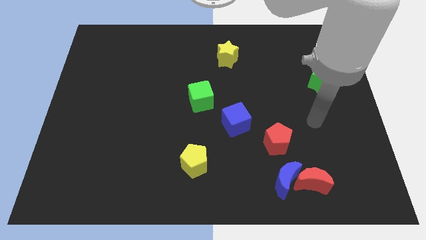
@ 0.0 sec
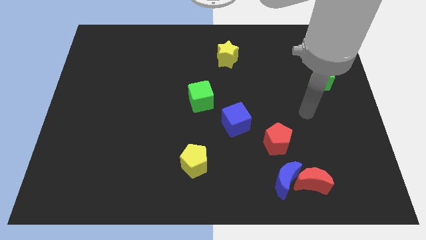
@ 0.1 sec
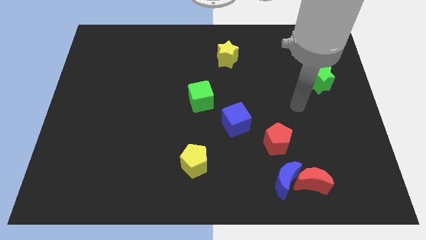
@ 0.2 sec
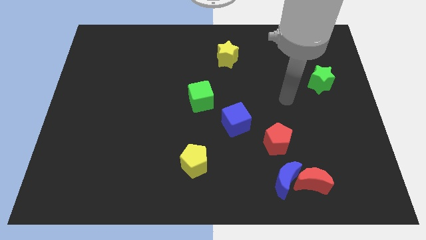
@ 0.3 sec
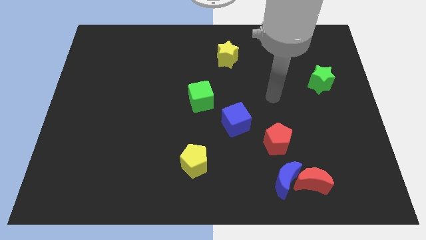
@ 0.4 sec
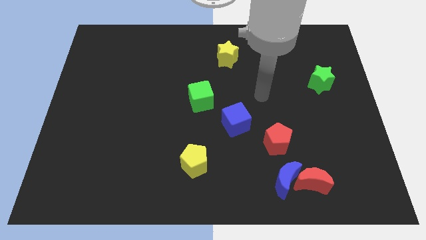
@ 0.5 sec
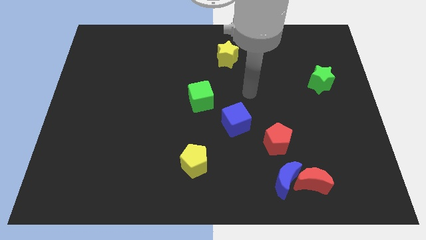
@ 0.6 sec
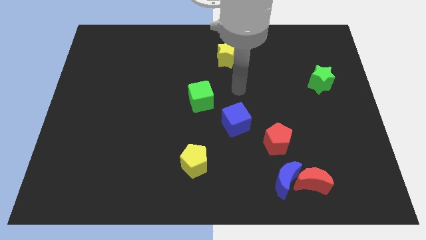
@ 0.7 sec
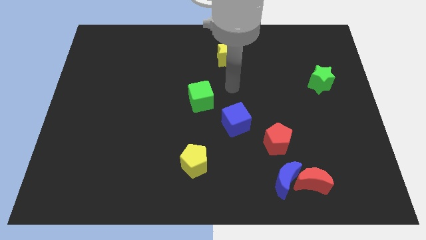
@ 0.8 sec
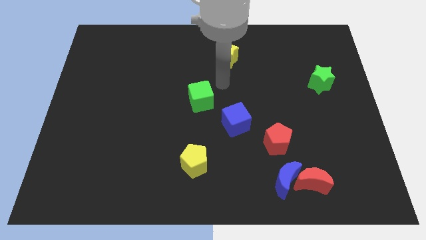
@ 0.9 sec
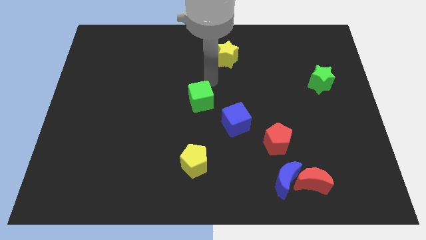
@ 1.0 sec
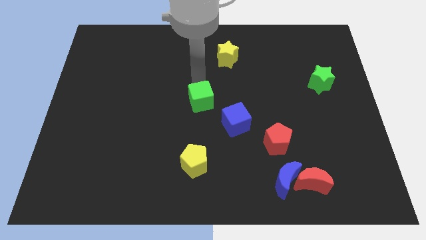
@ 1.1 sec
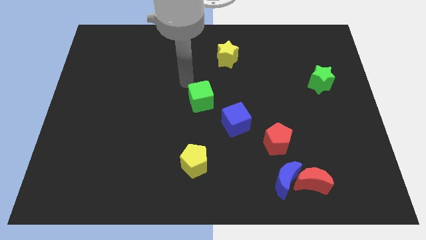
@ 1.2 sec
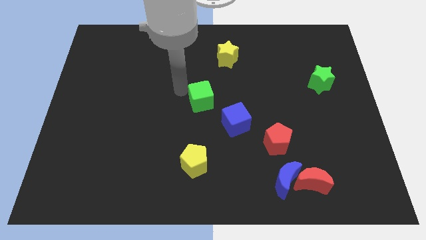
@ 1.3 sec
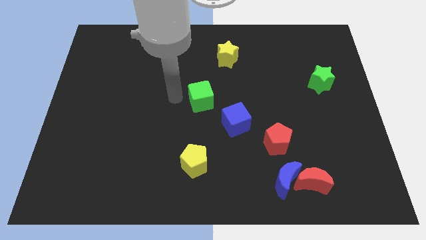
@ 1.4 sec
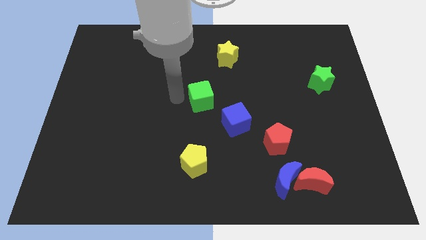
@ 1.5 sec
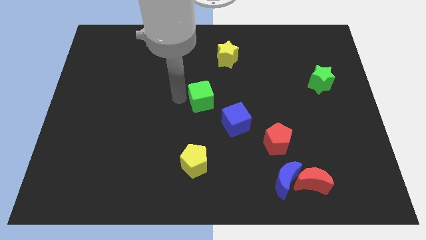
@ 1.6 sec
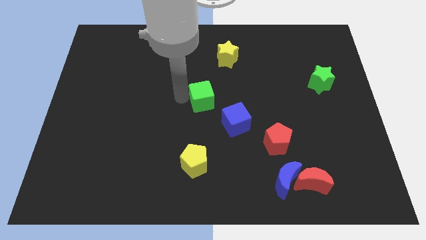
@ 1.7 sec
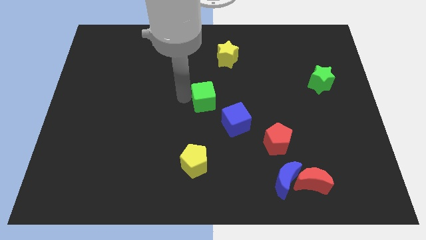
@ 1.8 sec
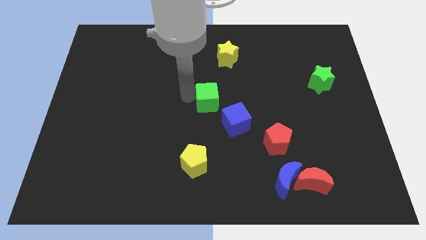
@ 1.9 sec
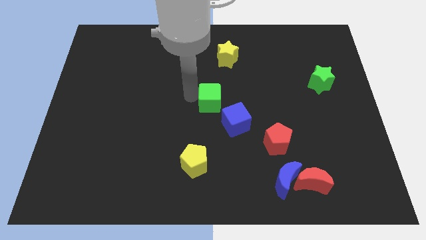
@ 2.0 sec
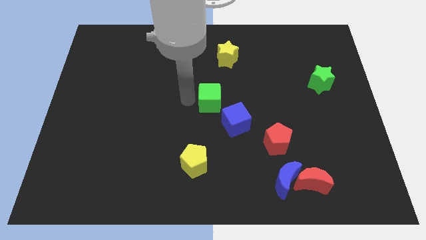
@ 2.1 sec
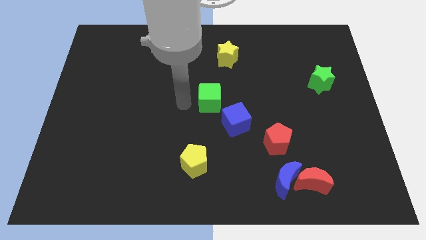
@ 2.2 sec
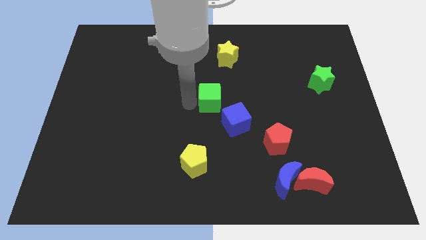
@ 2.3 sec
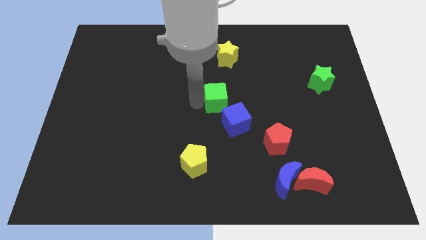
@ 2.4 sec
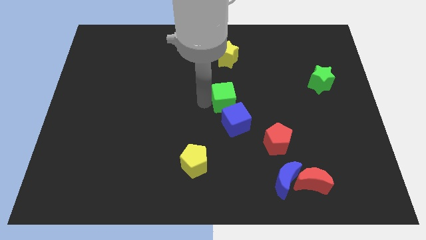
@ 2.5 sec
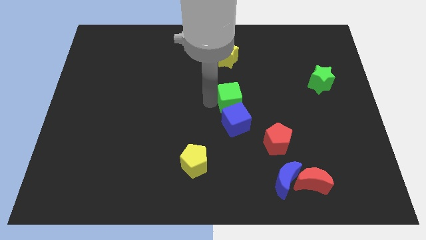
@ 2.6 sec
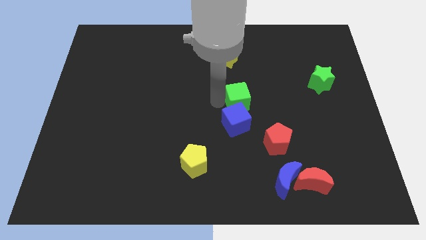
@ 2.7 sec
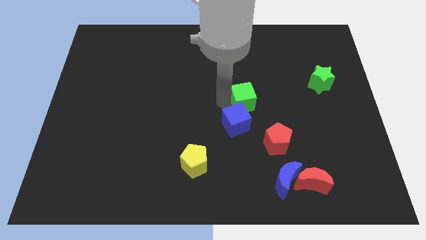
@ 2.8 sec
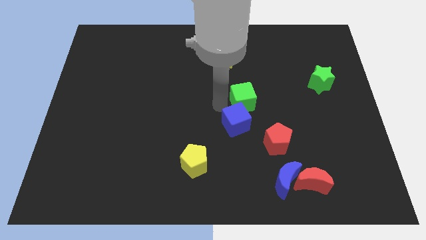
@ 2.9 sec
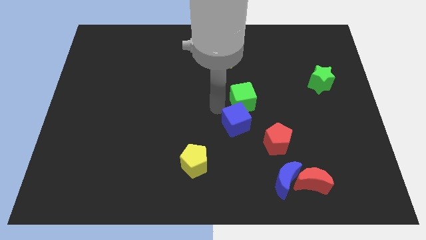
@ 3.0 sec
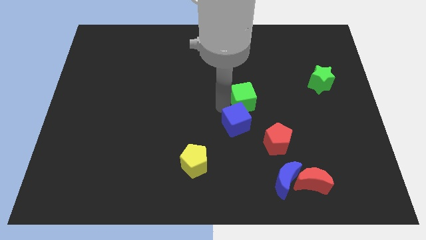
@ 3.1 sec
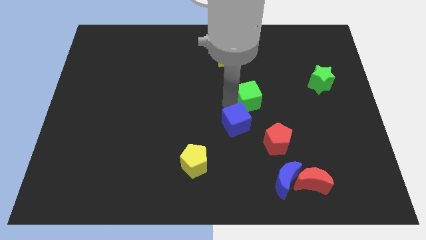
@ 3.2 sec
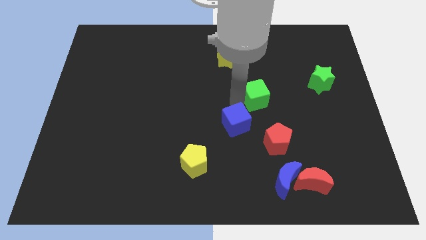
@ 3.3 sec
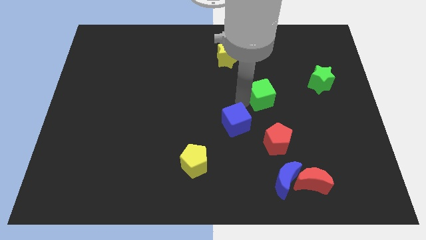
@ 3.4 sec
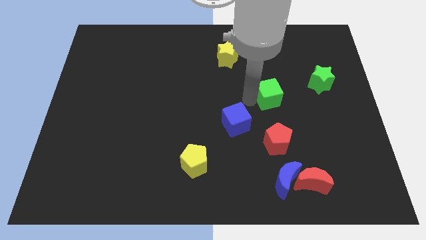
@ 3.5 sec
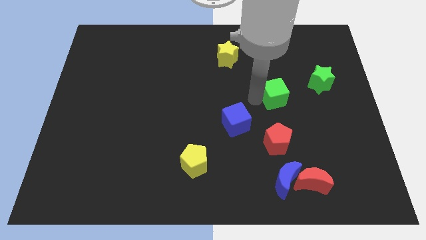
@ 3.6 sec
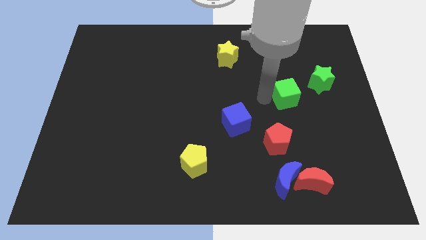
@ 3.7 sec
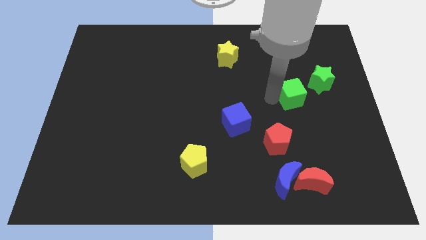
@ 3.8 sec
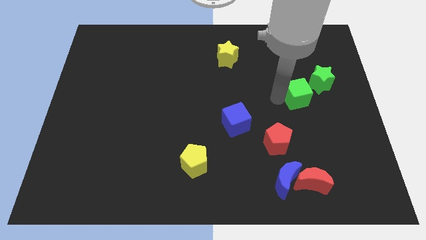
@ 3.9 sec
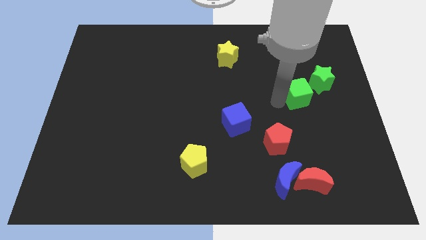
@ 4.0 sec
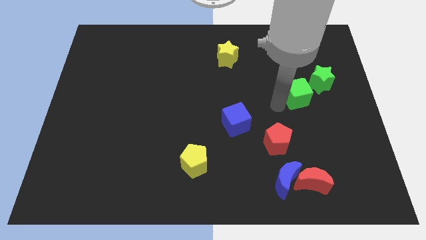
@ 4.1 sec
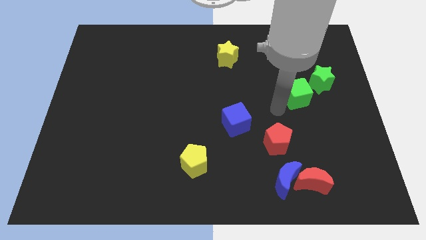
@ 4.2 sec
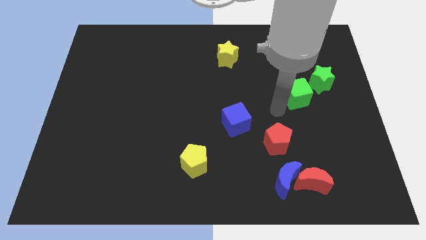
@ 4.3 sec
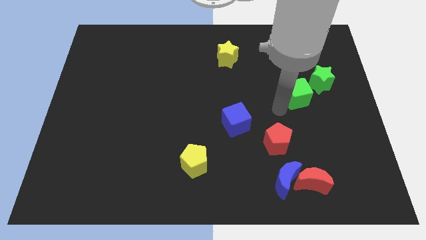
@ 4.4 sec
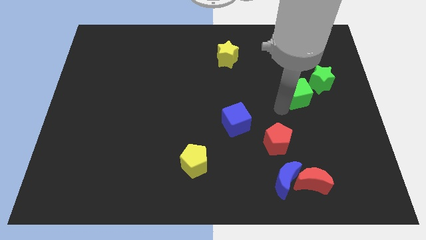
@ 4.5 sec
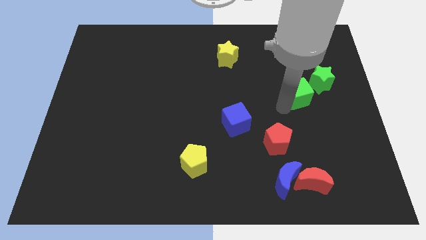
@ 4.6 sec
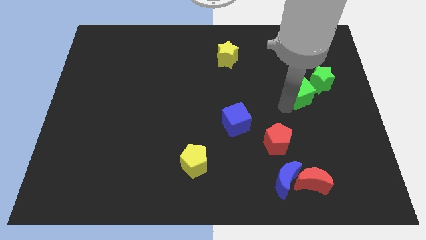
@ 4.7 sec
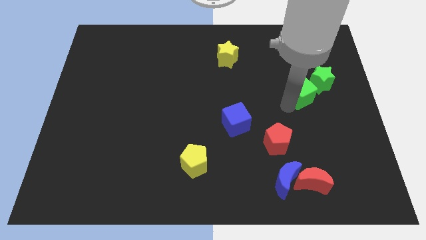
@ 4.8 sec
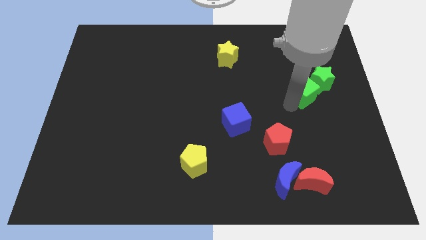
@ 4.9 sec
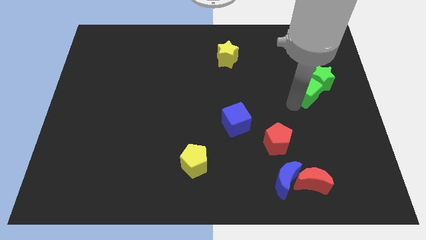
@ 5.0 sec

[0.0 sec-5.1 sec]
slide the green cube towards the green star

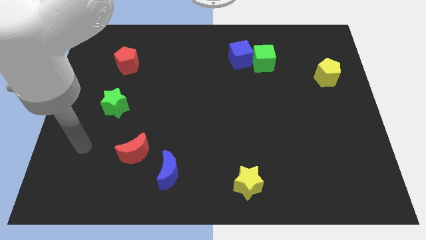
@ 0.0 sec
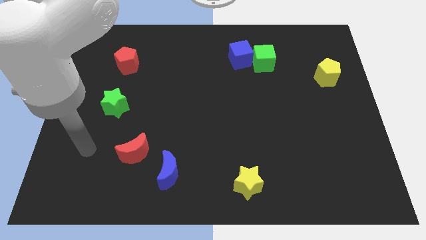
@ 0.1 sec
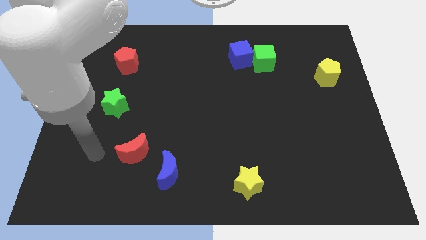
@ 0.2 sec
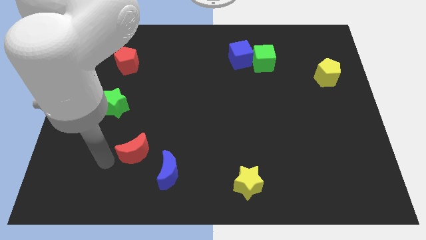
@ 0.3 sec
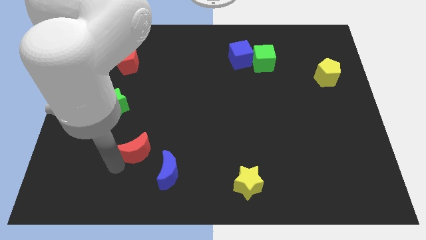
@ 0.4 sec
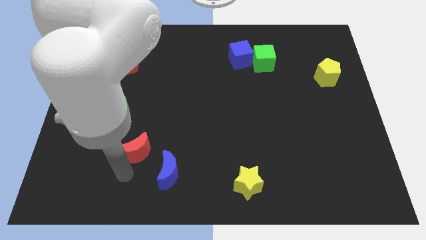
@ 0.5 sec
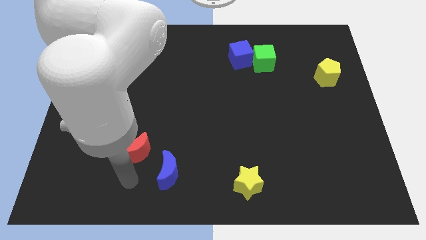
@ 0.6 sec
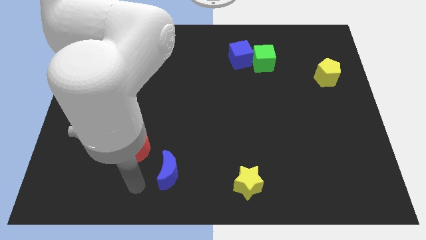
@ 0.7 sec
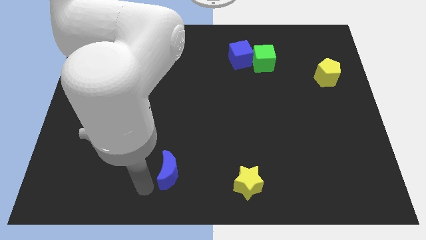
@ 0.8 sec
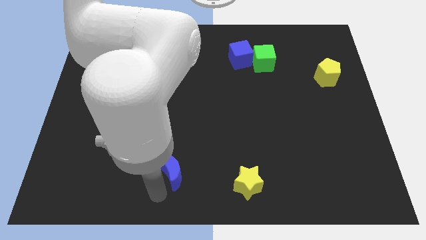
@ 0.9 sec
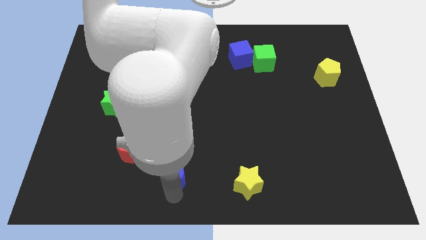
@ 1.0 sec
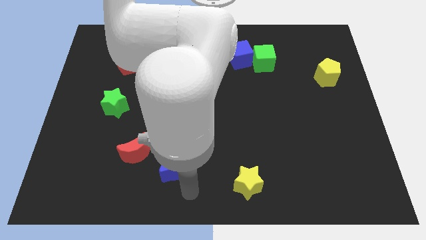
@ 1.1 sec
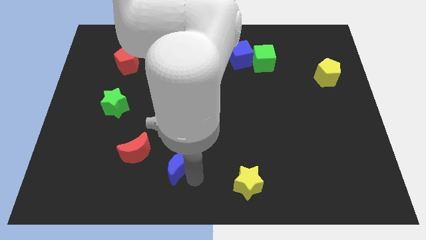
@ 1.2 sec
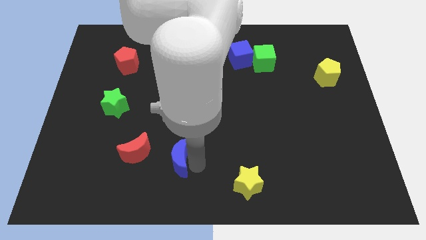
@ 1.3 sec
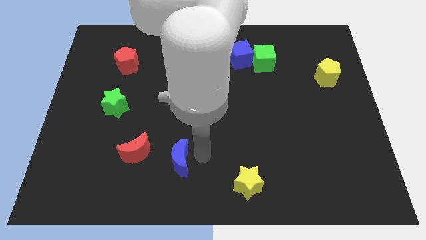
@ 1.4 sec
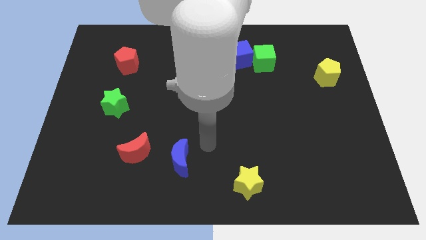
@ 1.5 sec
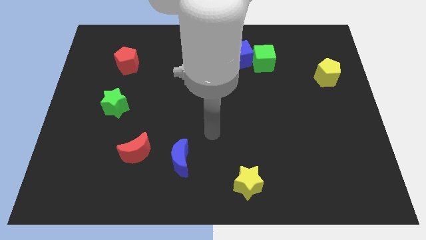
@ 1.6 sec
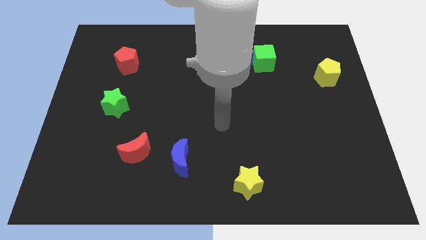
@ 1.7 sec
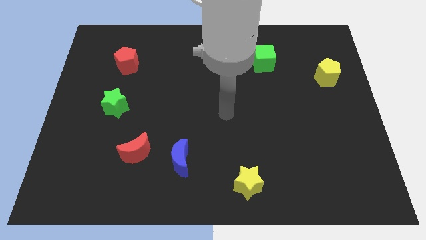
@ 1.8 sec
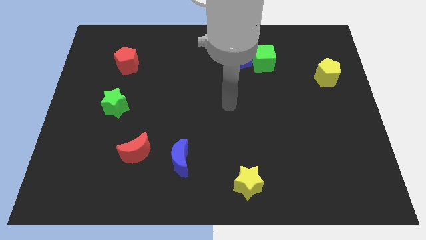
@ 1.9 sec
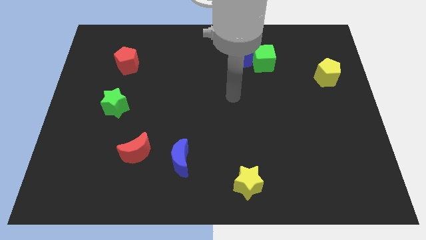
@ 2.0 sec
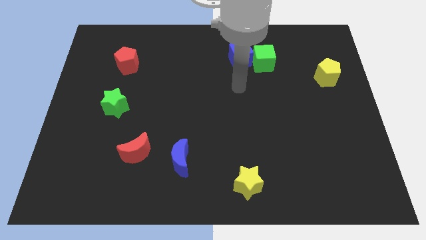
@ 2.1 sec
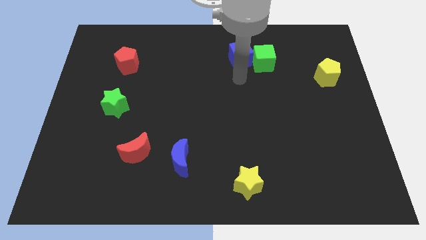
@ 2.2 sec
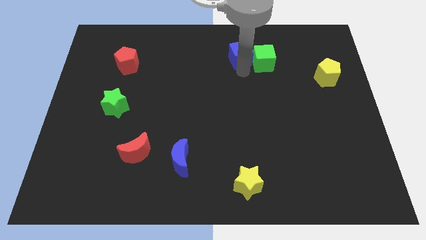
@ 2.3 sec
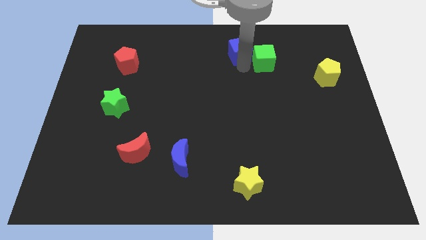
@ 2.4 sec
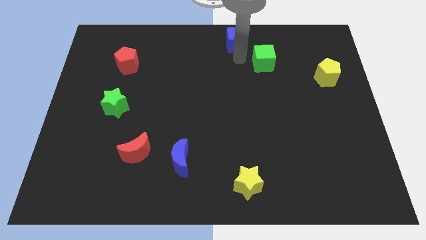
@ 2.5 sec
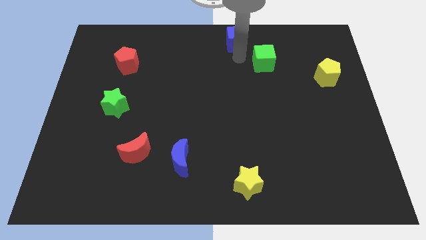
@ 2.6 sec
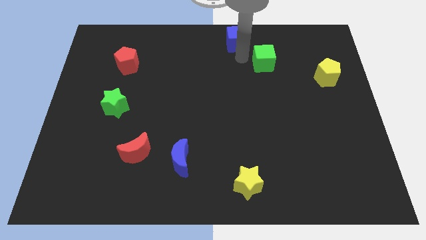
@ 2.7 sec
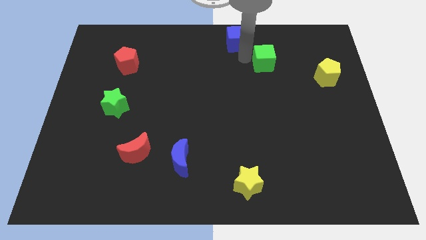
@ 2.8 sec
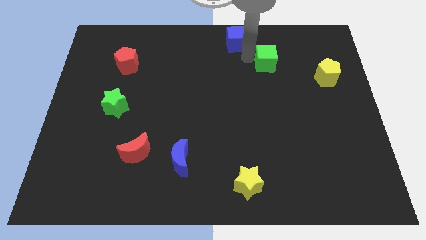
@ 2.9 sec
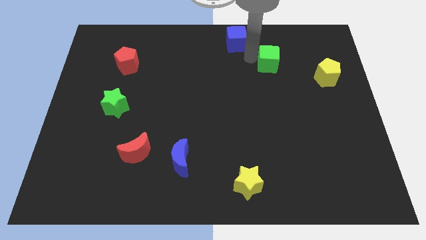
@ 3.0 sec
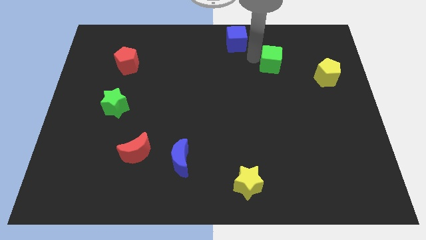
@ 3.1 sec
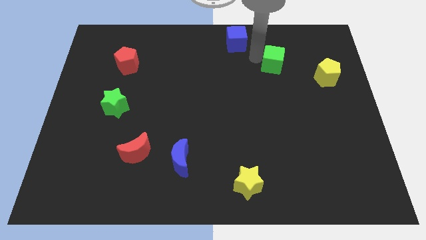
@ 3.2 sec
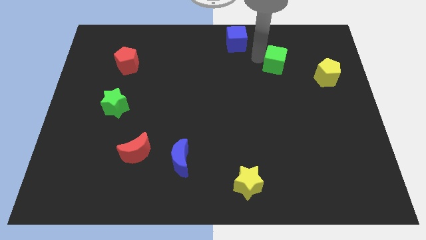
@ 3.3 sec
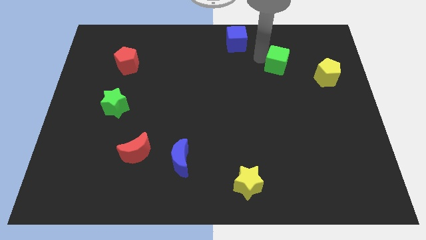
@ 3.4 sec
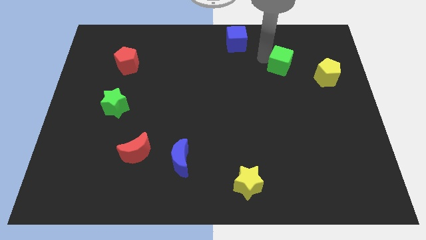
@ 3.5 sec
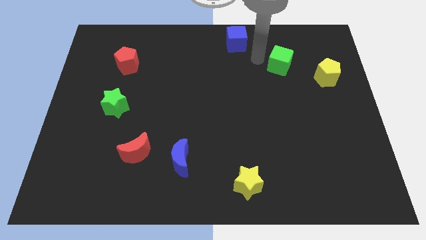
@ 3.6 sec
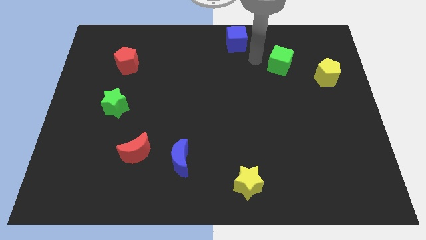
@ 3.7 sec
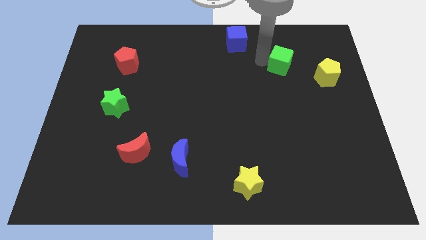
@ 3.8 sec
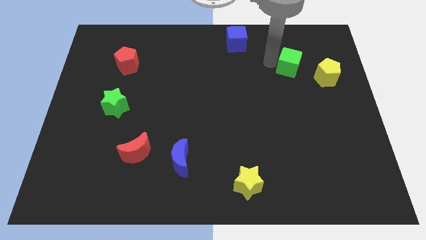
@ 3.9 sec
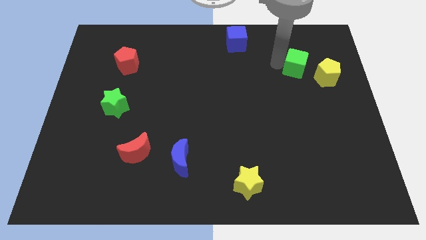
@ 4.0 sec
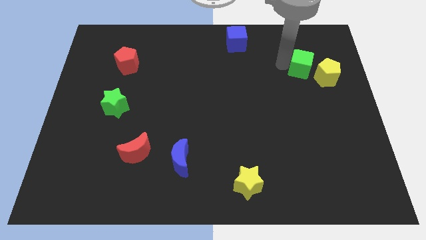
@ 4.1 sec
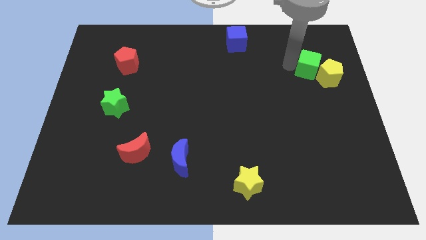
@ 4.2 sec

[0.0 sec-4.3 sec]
put the green cube close to the yellow pentagon
